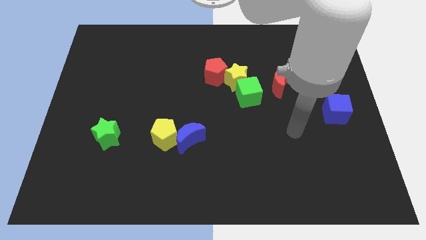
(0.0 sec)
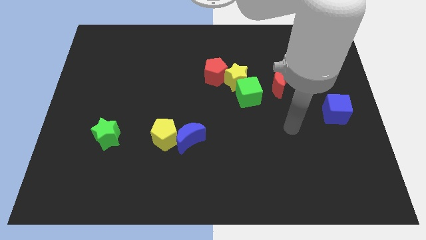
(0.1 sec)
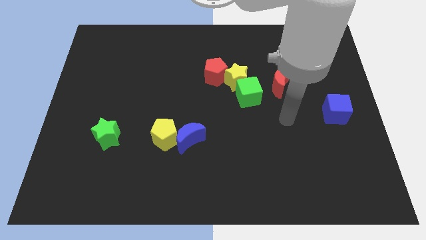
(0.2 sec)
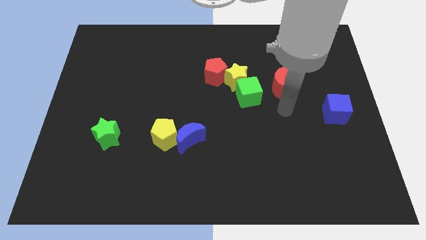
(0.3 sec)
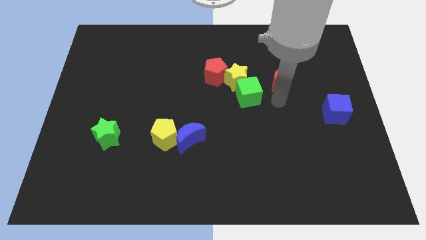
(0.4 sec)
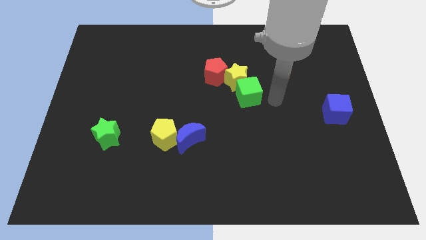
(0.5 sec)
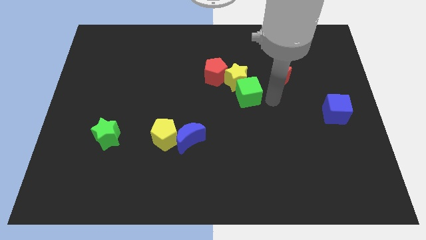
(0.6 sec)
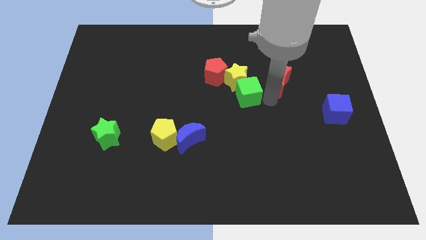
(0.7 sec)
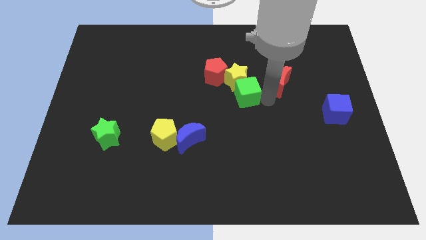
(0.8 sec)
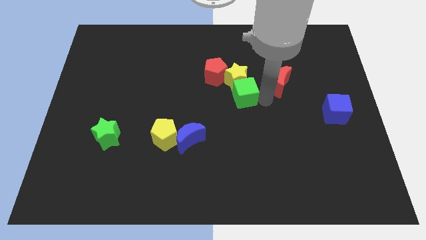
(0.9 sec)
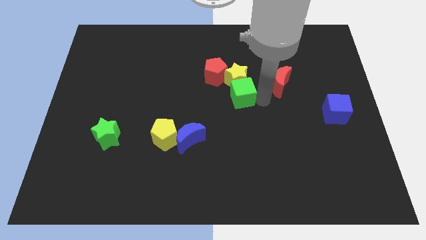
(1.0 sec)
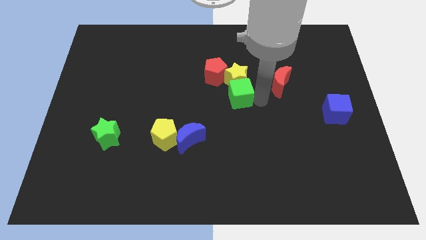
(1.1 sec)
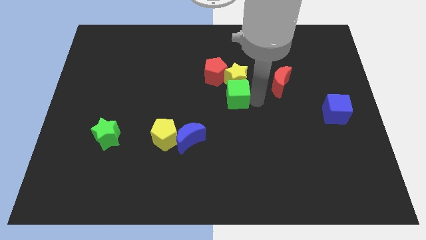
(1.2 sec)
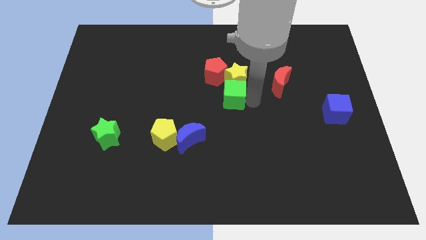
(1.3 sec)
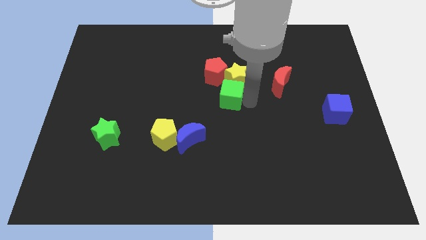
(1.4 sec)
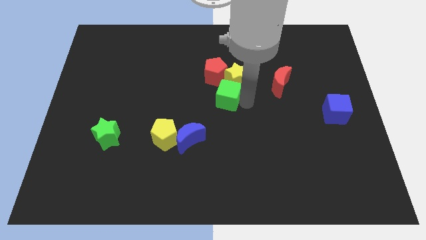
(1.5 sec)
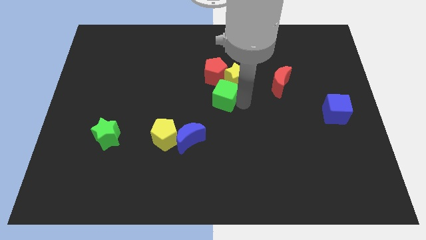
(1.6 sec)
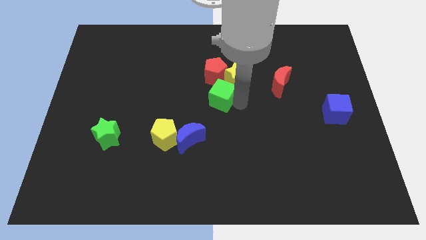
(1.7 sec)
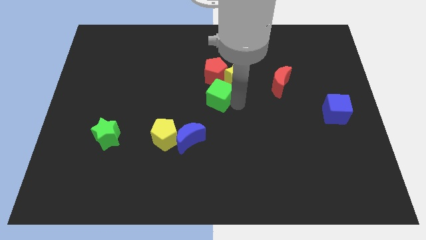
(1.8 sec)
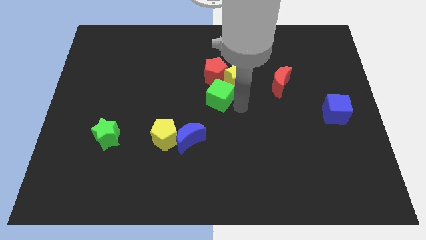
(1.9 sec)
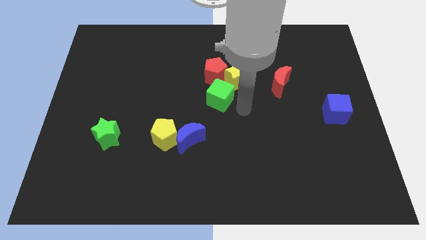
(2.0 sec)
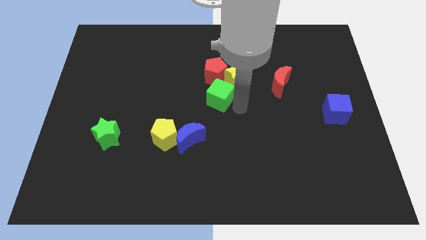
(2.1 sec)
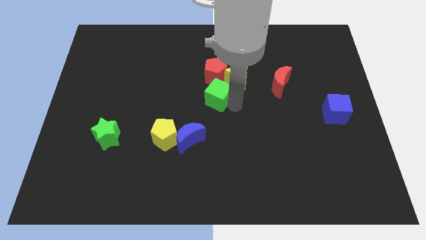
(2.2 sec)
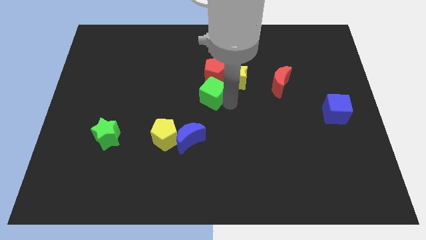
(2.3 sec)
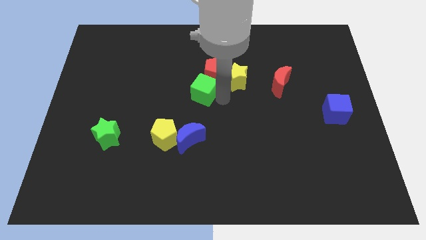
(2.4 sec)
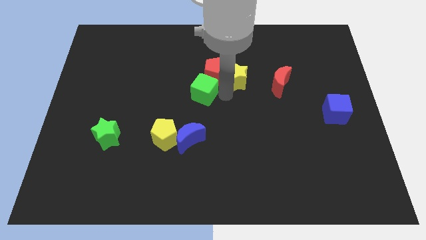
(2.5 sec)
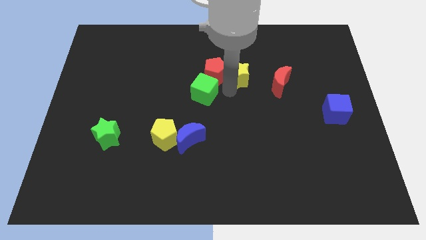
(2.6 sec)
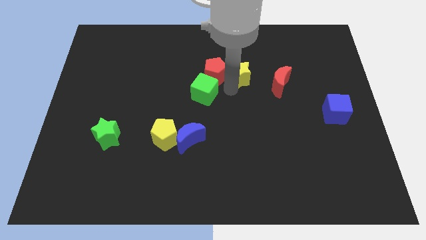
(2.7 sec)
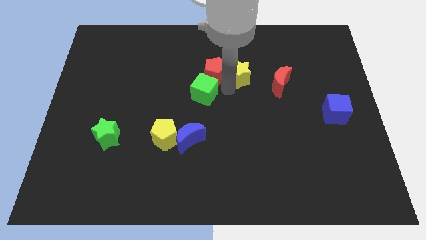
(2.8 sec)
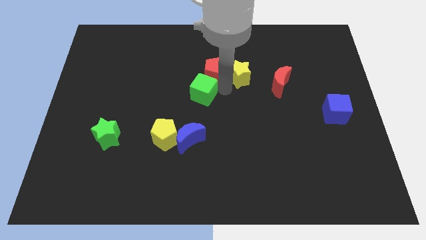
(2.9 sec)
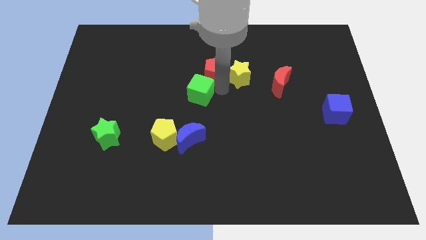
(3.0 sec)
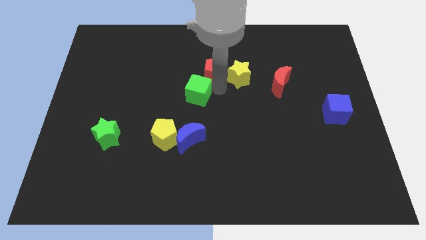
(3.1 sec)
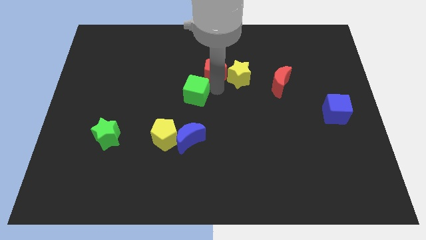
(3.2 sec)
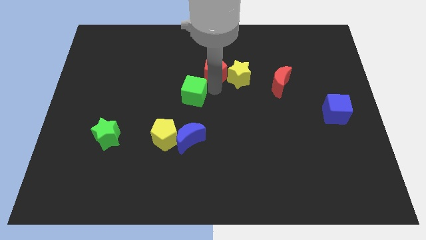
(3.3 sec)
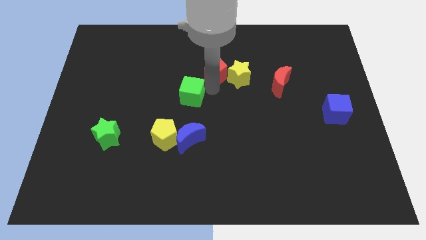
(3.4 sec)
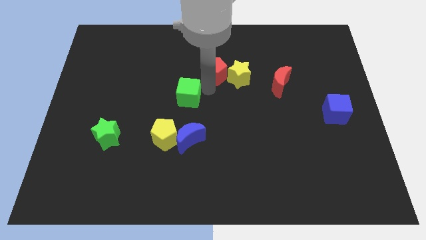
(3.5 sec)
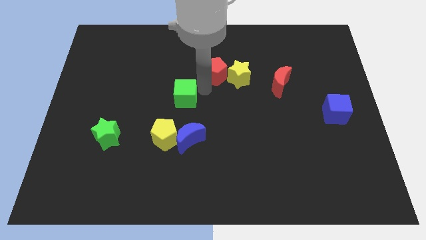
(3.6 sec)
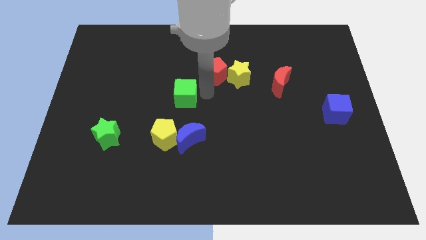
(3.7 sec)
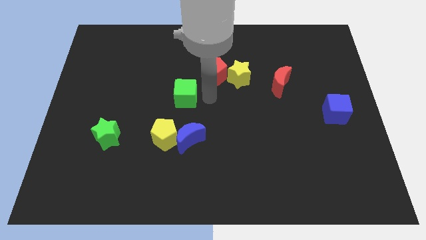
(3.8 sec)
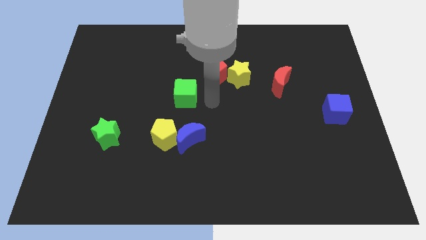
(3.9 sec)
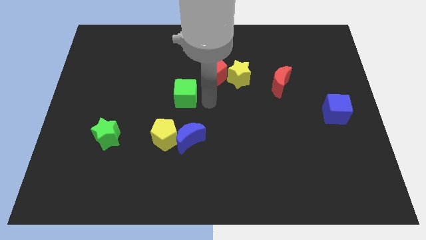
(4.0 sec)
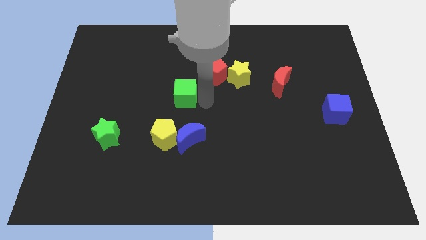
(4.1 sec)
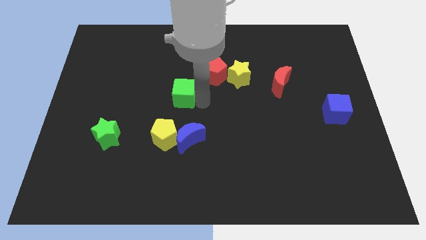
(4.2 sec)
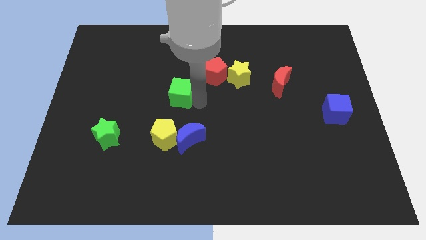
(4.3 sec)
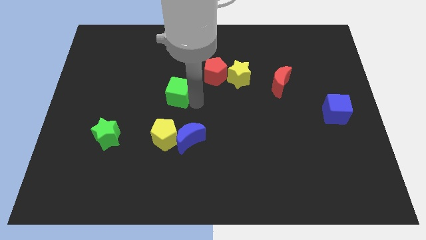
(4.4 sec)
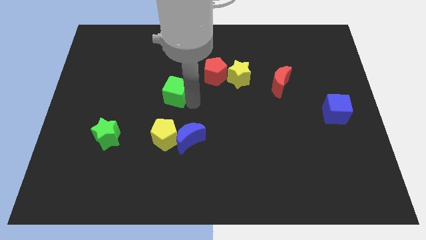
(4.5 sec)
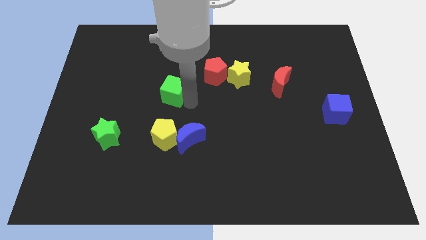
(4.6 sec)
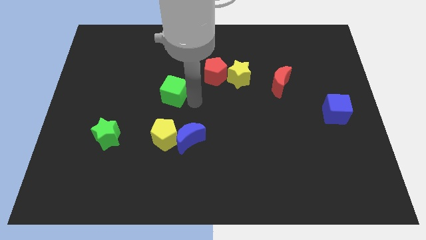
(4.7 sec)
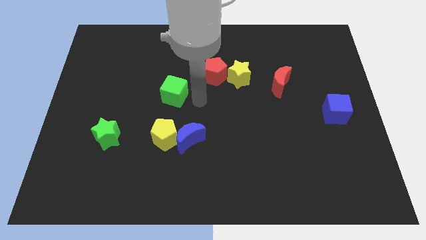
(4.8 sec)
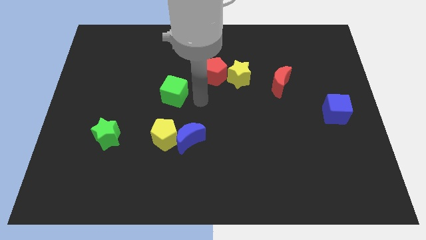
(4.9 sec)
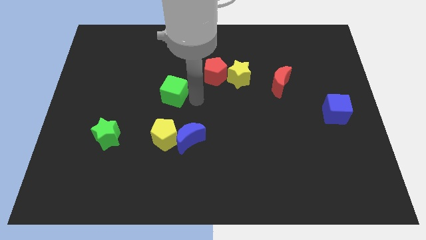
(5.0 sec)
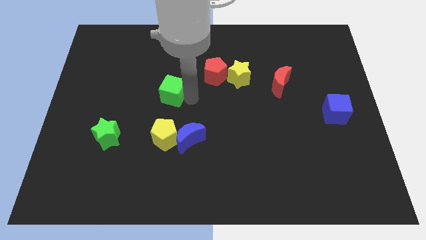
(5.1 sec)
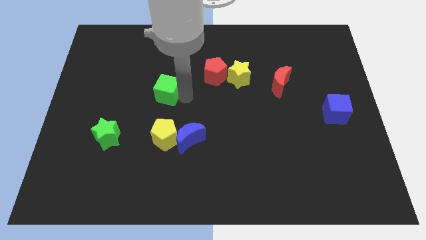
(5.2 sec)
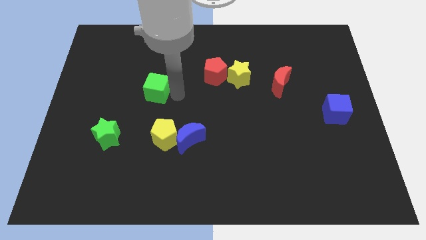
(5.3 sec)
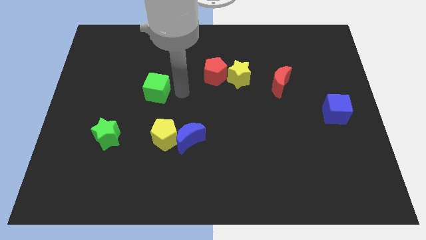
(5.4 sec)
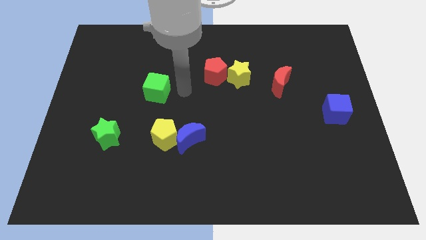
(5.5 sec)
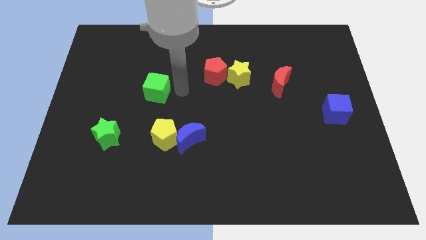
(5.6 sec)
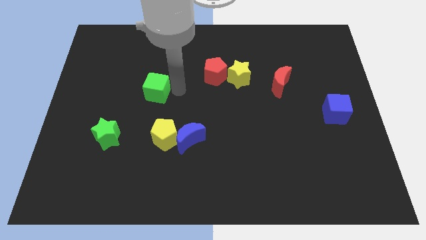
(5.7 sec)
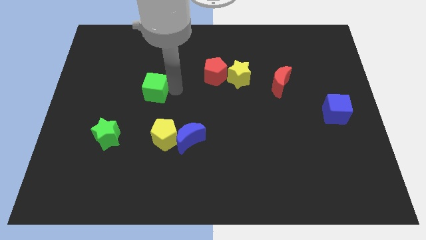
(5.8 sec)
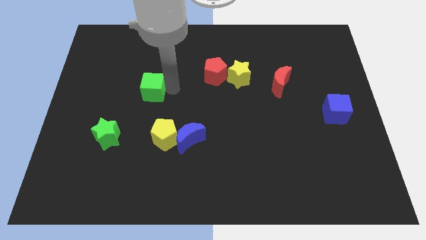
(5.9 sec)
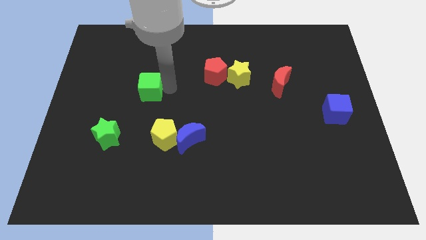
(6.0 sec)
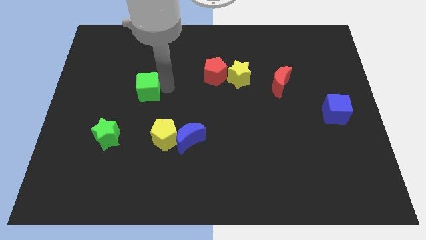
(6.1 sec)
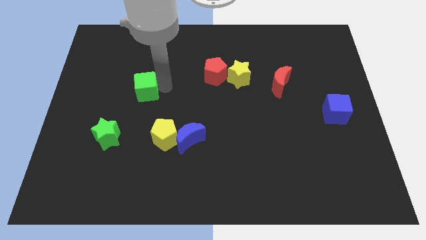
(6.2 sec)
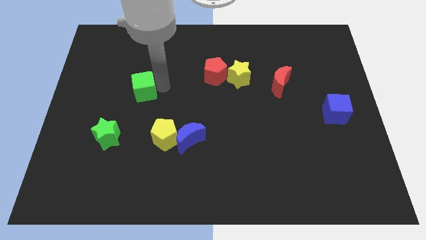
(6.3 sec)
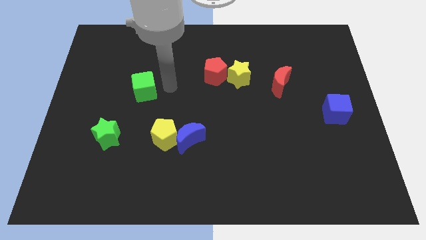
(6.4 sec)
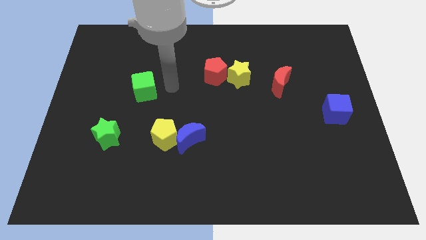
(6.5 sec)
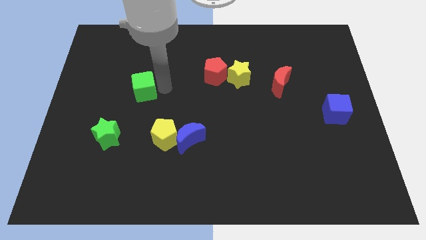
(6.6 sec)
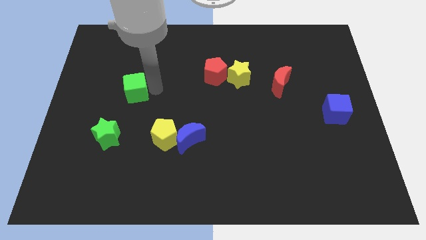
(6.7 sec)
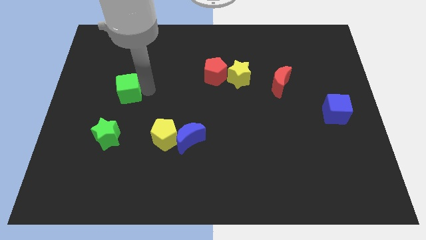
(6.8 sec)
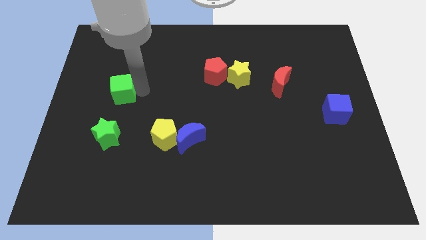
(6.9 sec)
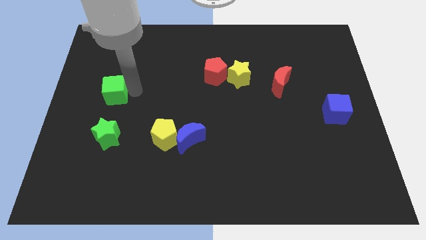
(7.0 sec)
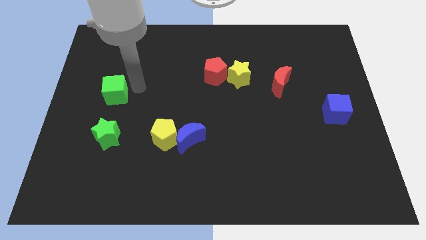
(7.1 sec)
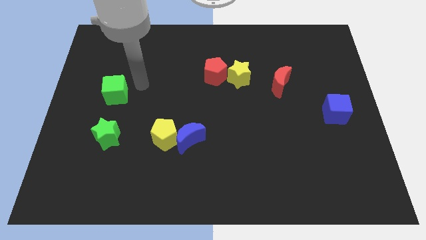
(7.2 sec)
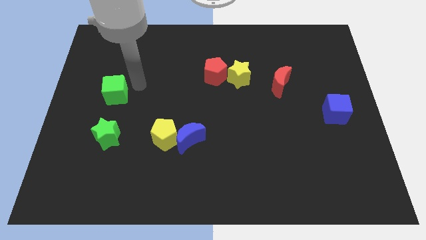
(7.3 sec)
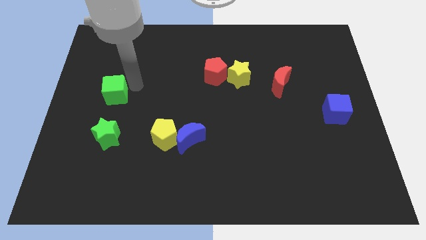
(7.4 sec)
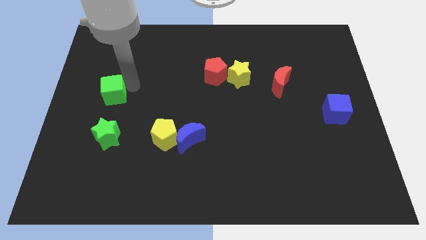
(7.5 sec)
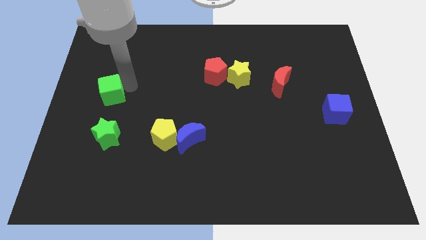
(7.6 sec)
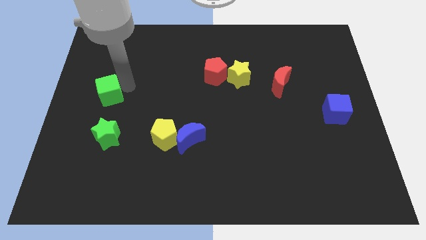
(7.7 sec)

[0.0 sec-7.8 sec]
put the green cube to the left side of the board
